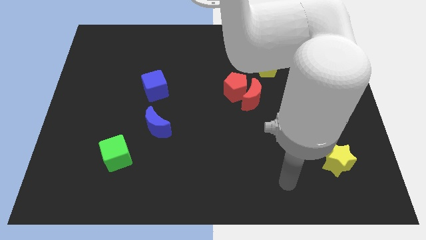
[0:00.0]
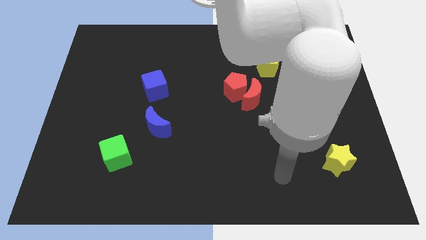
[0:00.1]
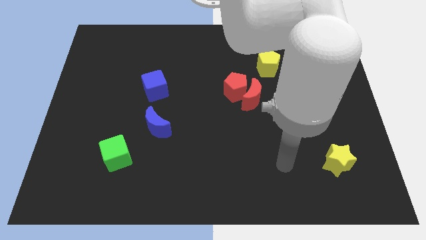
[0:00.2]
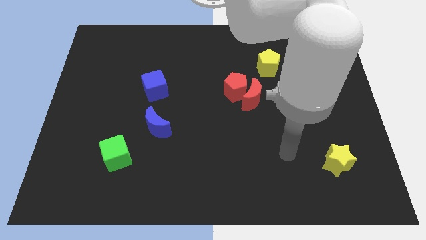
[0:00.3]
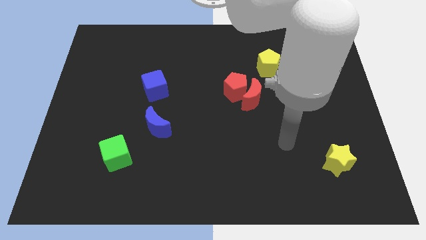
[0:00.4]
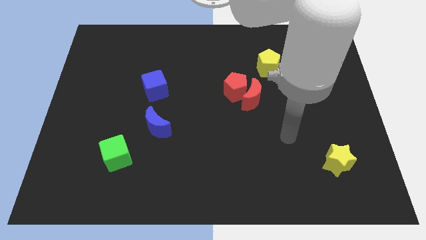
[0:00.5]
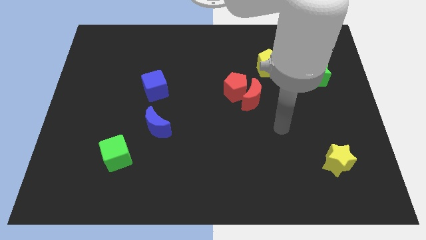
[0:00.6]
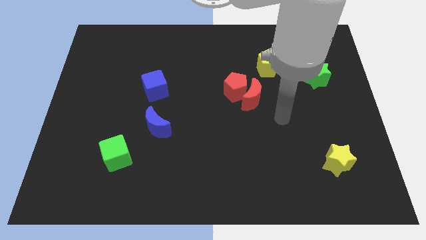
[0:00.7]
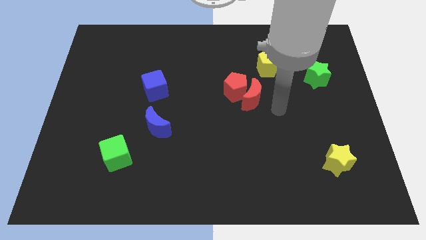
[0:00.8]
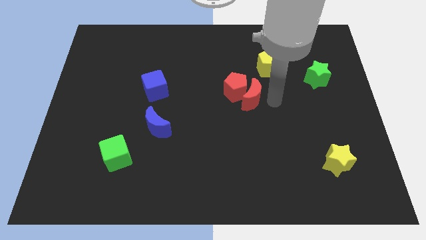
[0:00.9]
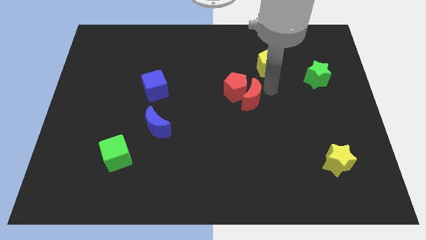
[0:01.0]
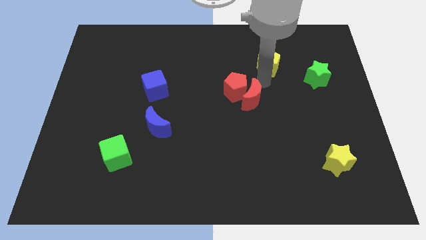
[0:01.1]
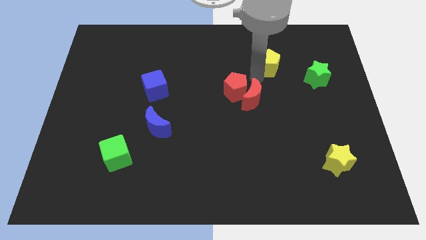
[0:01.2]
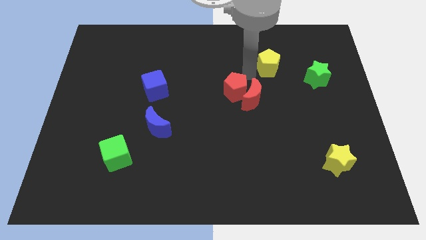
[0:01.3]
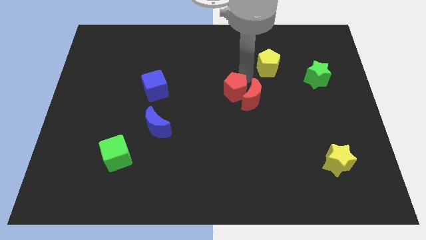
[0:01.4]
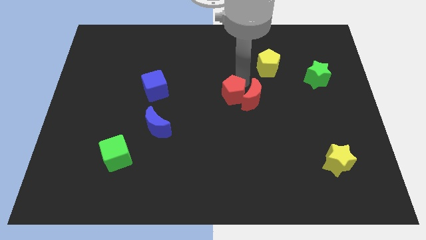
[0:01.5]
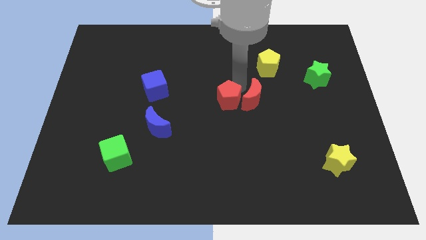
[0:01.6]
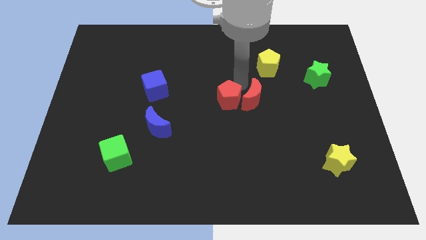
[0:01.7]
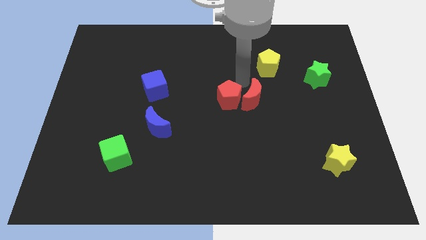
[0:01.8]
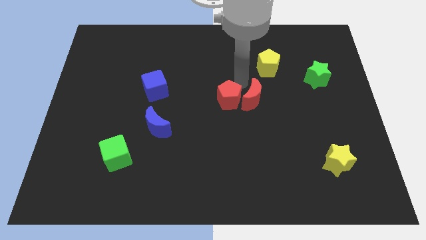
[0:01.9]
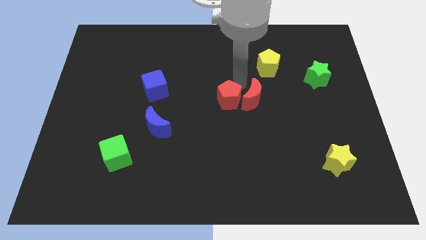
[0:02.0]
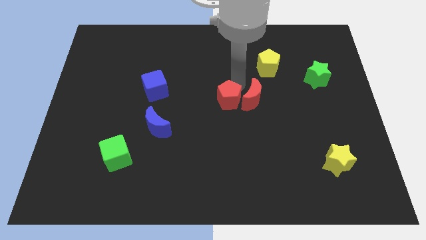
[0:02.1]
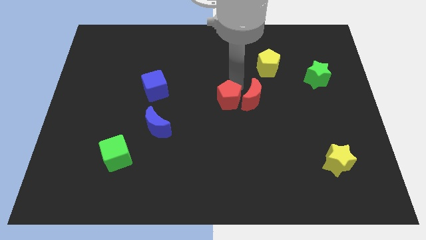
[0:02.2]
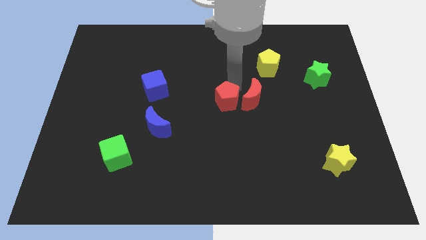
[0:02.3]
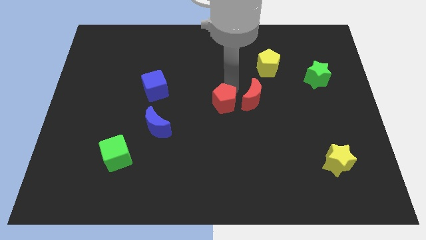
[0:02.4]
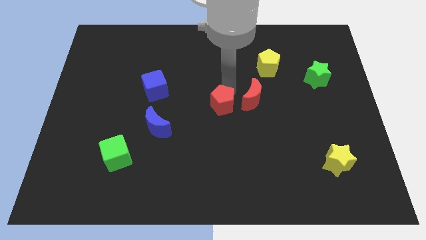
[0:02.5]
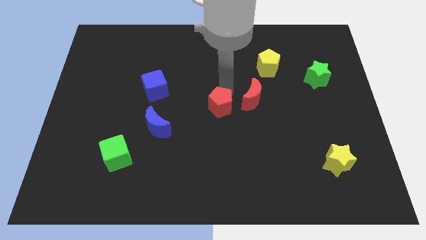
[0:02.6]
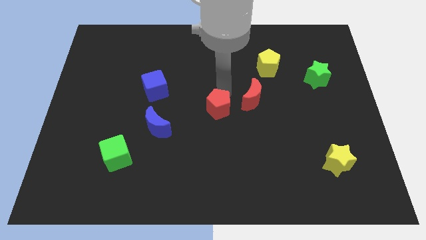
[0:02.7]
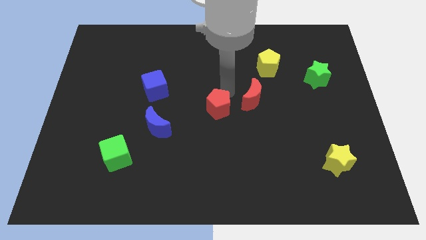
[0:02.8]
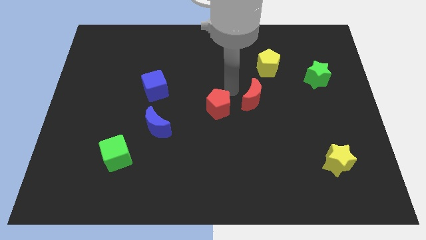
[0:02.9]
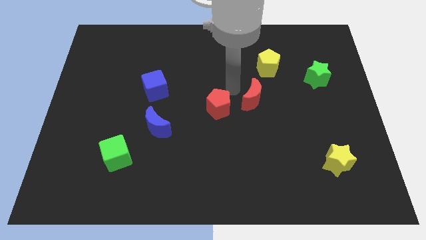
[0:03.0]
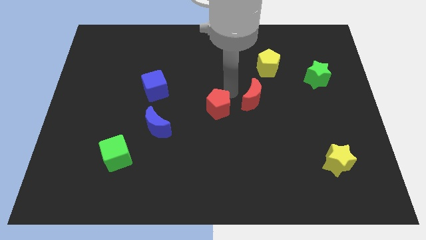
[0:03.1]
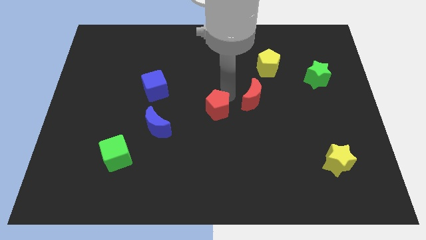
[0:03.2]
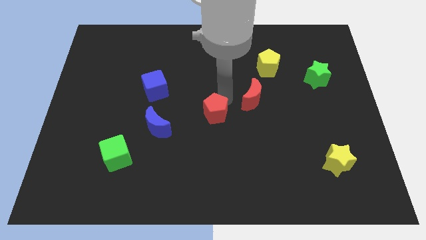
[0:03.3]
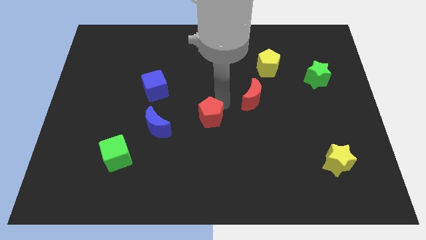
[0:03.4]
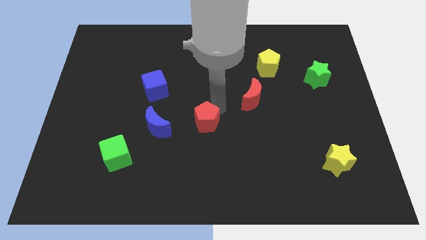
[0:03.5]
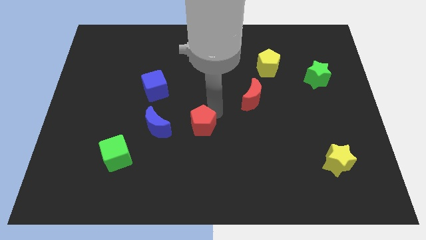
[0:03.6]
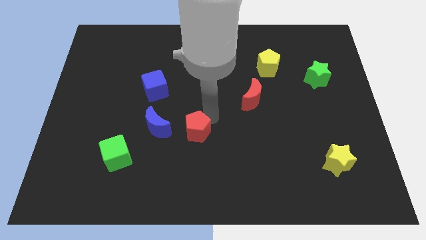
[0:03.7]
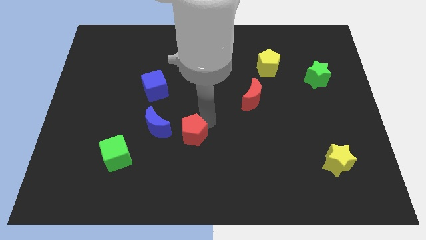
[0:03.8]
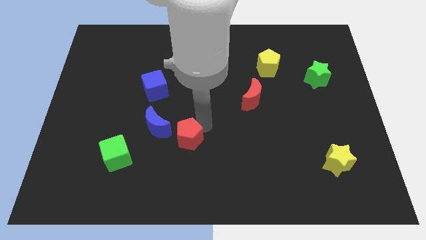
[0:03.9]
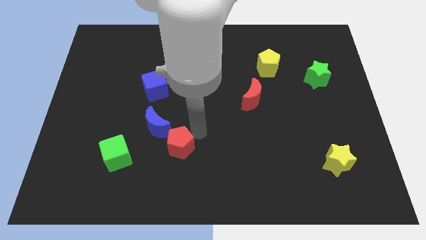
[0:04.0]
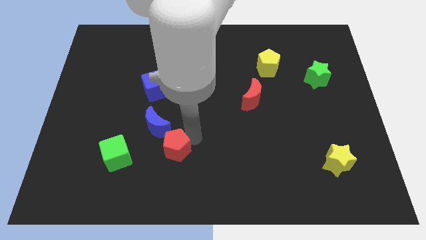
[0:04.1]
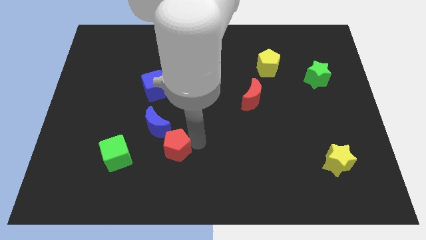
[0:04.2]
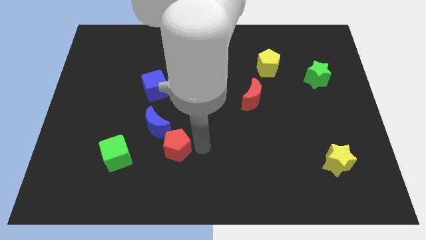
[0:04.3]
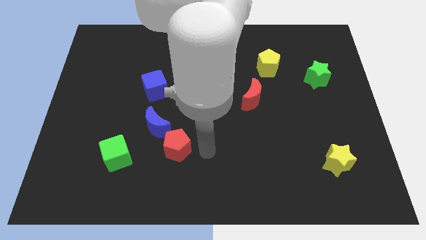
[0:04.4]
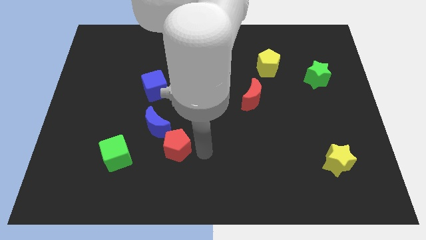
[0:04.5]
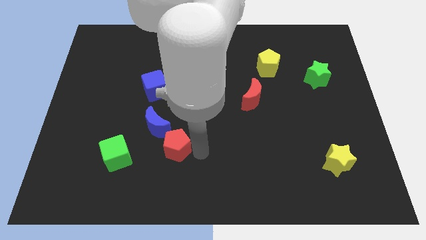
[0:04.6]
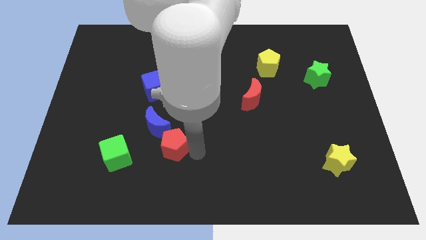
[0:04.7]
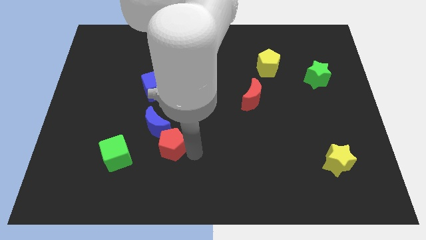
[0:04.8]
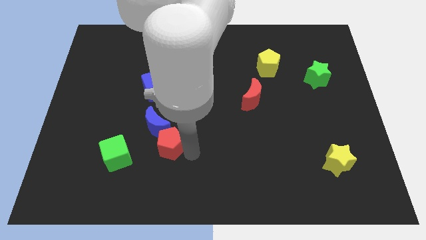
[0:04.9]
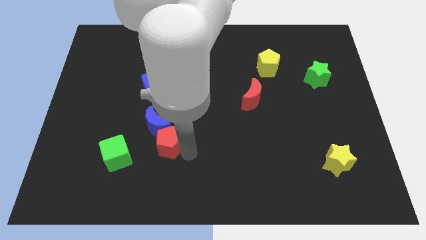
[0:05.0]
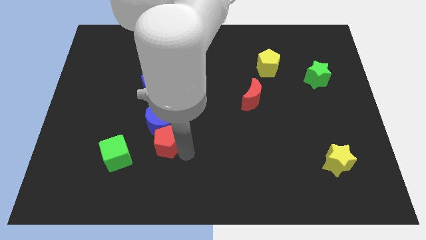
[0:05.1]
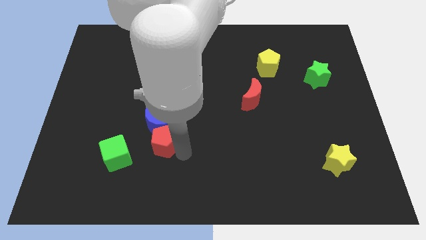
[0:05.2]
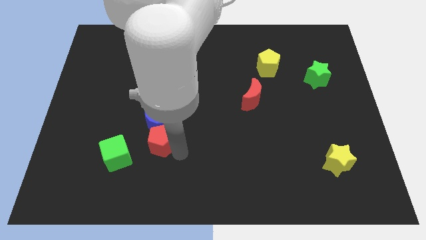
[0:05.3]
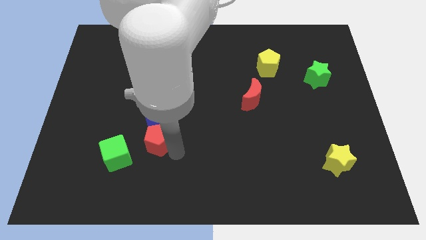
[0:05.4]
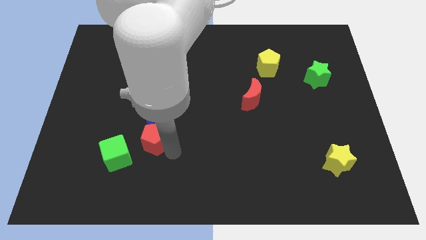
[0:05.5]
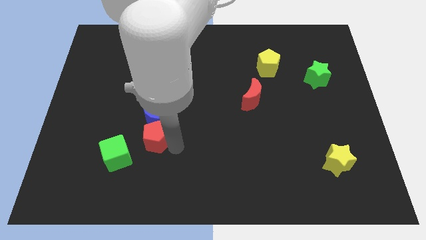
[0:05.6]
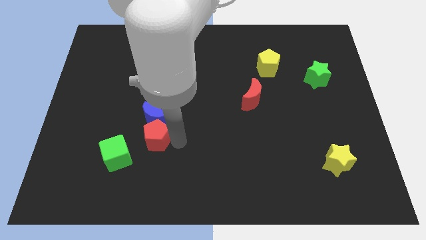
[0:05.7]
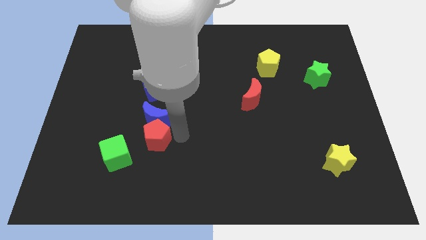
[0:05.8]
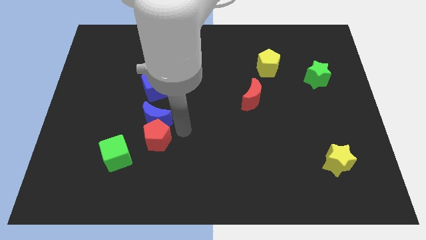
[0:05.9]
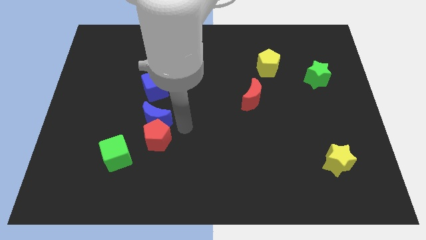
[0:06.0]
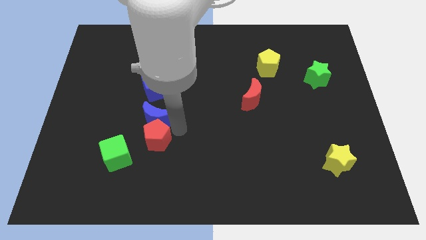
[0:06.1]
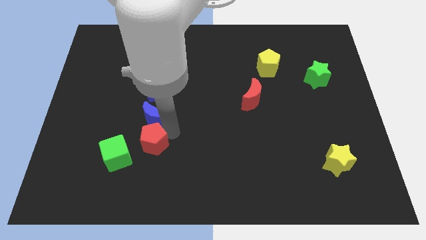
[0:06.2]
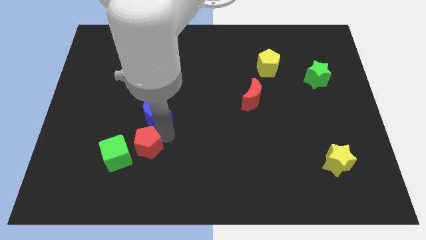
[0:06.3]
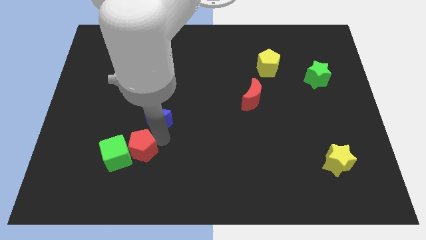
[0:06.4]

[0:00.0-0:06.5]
move the red pentagon to the green cube
